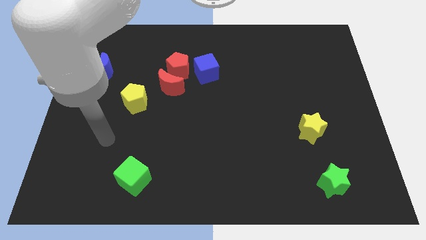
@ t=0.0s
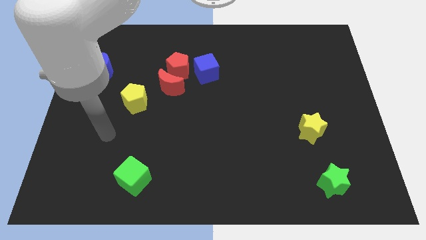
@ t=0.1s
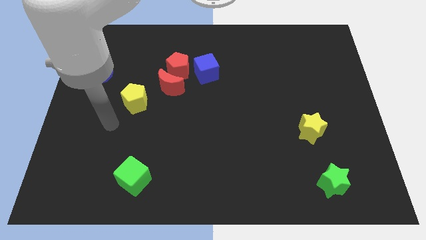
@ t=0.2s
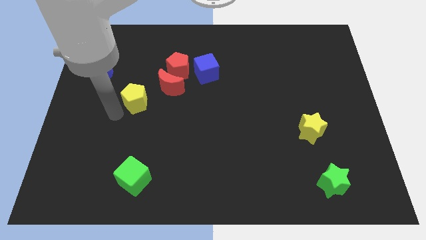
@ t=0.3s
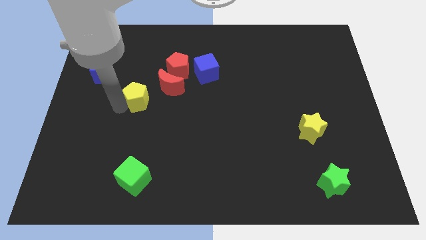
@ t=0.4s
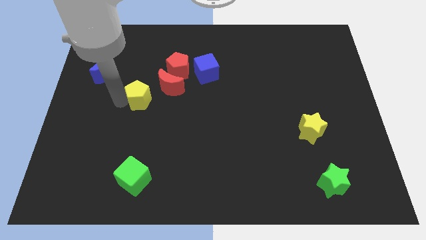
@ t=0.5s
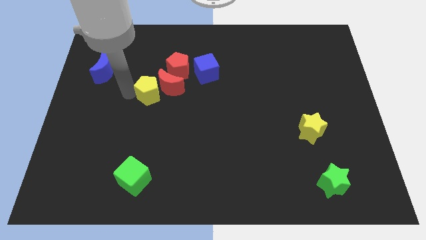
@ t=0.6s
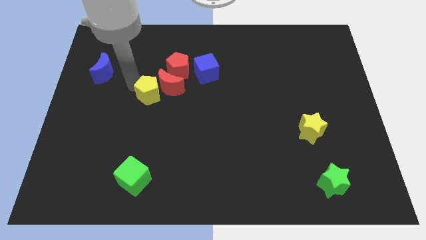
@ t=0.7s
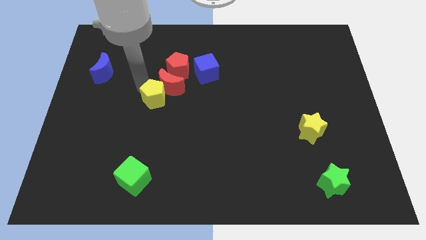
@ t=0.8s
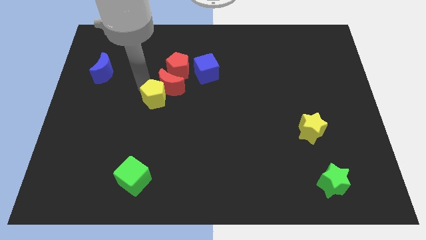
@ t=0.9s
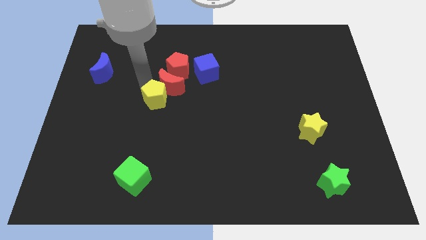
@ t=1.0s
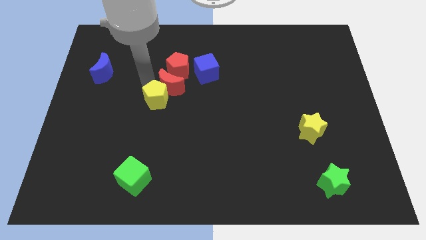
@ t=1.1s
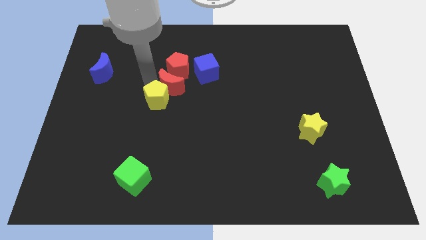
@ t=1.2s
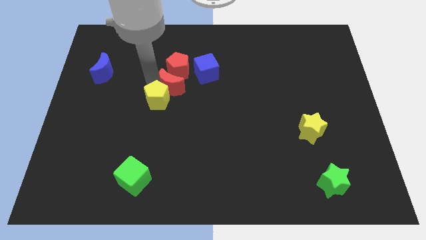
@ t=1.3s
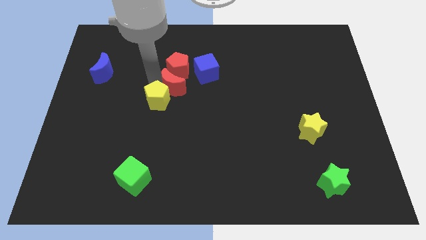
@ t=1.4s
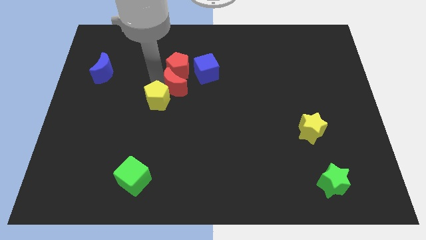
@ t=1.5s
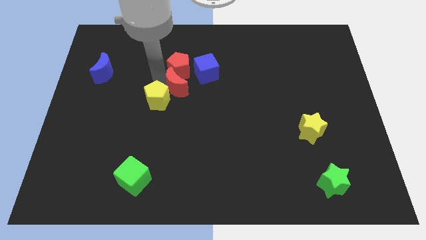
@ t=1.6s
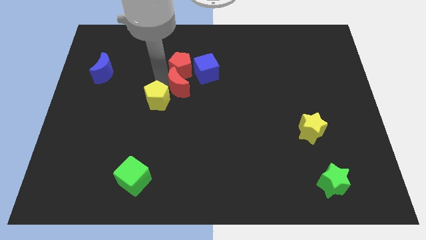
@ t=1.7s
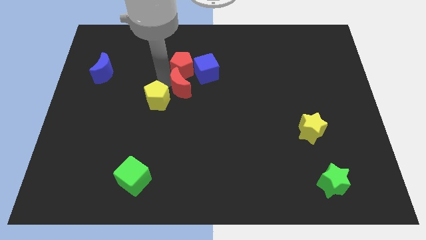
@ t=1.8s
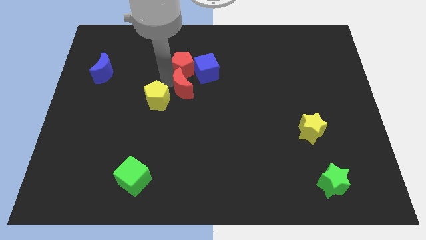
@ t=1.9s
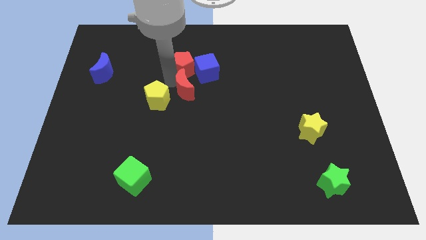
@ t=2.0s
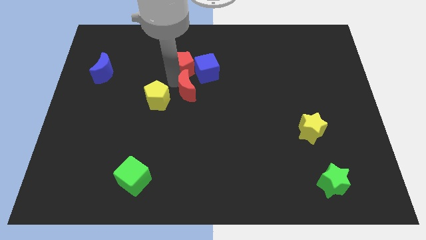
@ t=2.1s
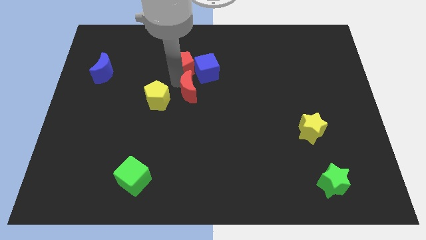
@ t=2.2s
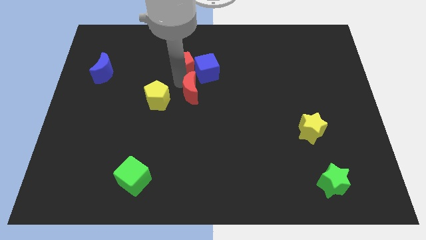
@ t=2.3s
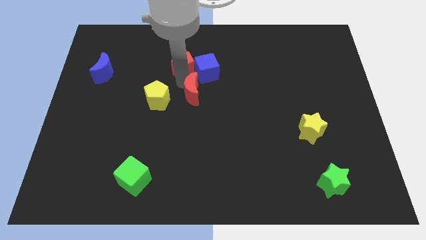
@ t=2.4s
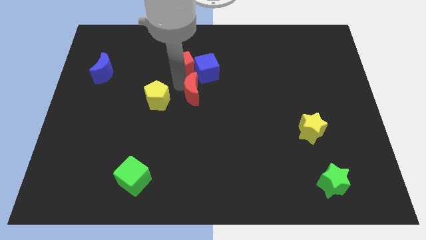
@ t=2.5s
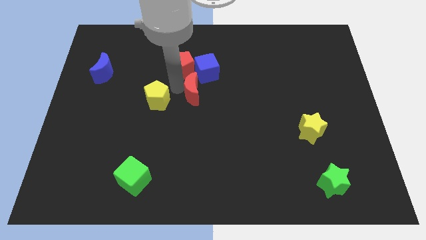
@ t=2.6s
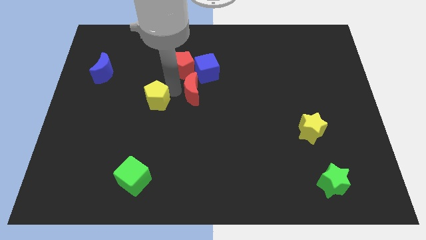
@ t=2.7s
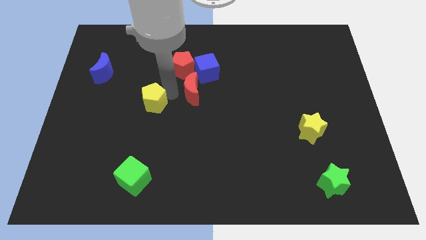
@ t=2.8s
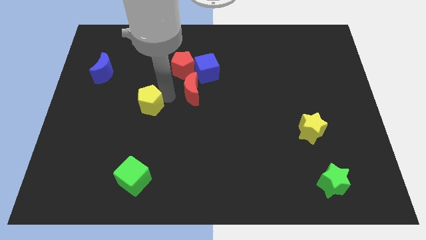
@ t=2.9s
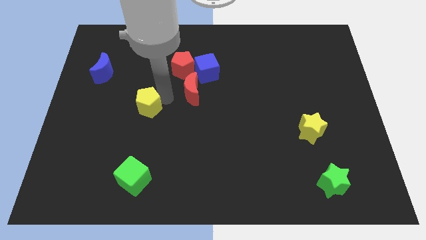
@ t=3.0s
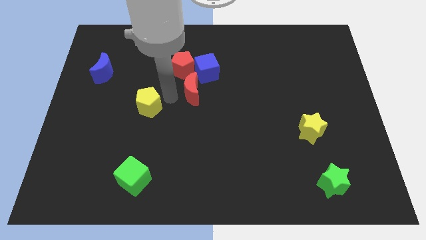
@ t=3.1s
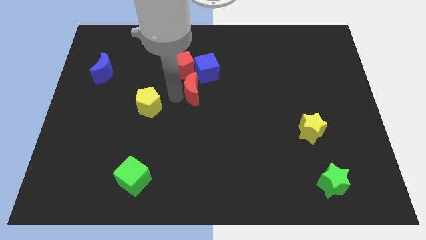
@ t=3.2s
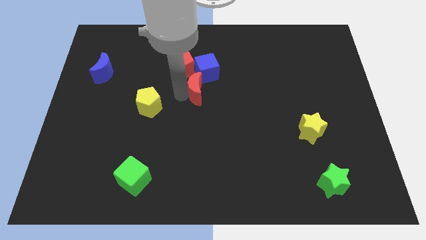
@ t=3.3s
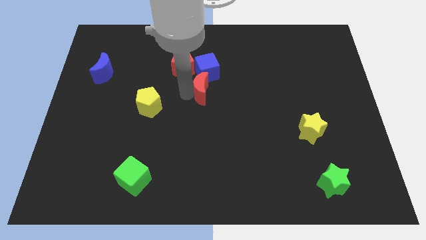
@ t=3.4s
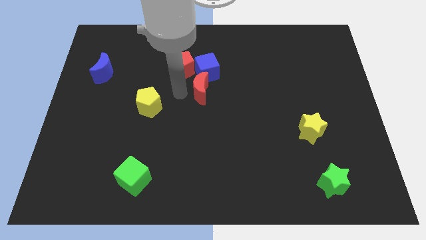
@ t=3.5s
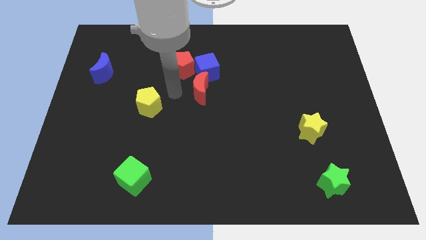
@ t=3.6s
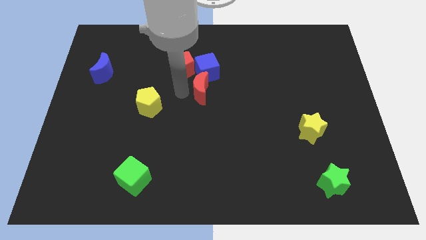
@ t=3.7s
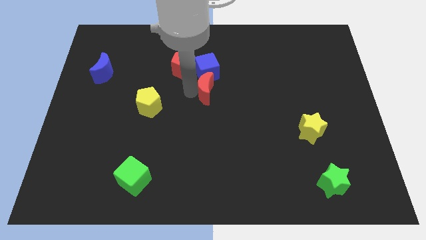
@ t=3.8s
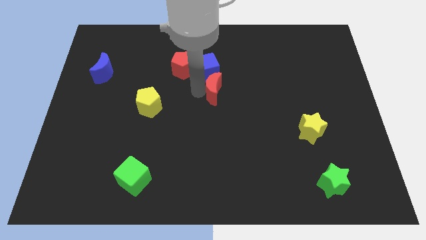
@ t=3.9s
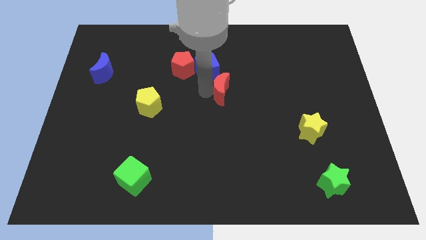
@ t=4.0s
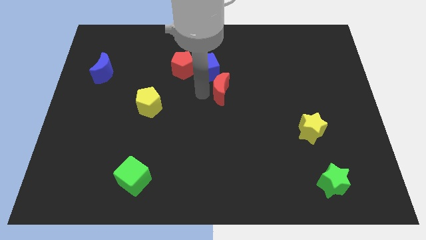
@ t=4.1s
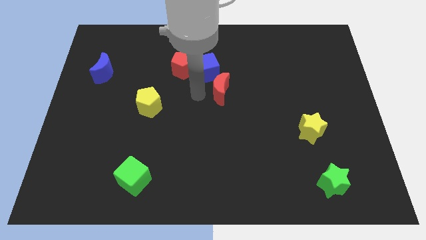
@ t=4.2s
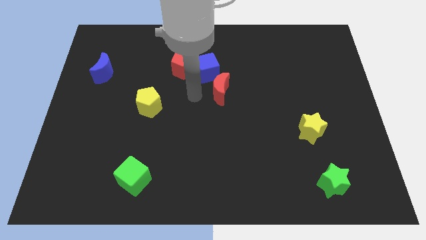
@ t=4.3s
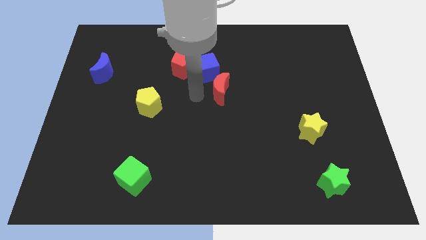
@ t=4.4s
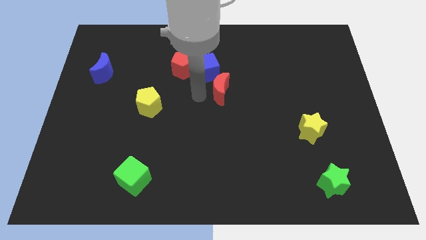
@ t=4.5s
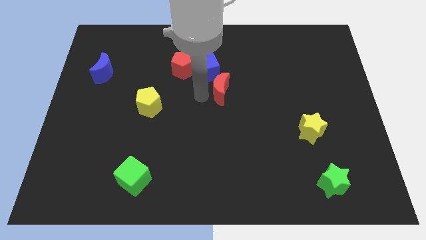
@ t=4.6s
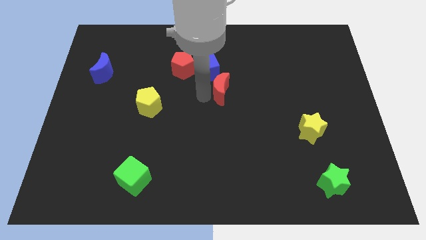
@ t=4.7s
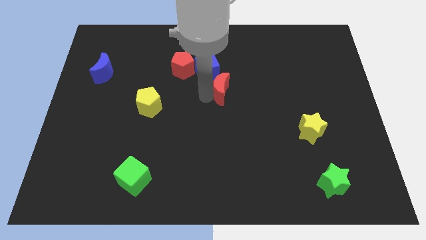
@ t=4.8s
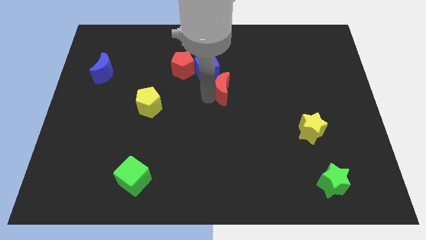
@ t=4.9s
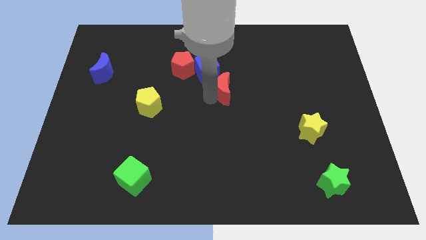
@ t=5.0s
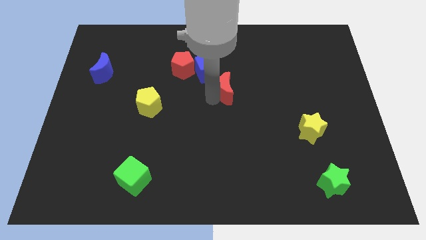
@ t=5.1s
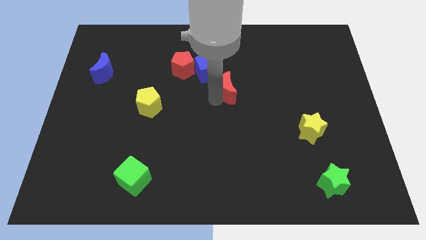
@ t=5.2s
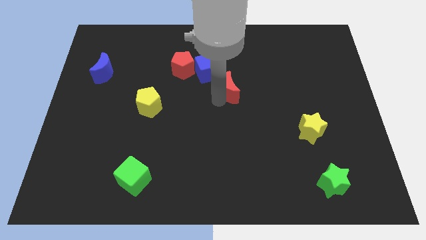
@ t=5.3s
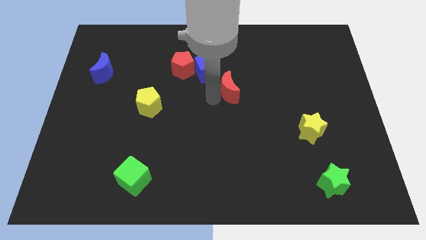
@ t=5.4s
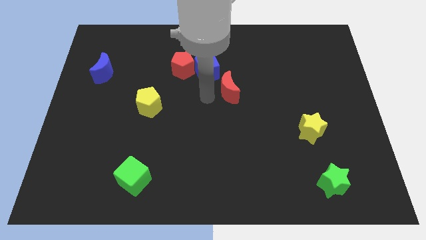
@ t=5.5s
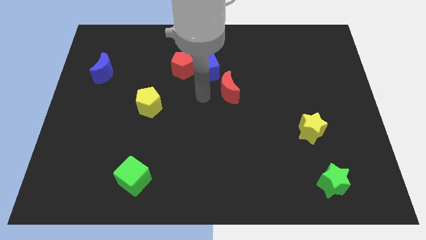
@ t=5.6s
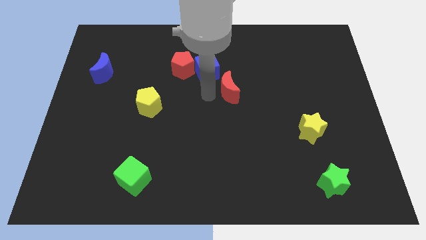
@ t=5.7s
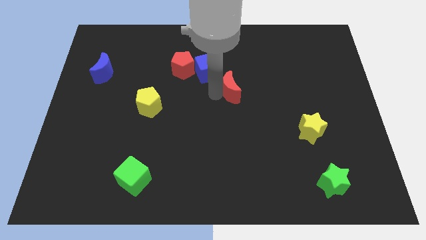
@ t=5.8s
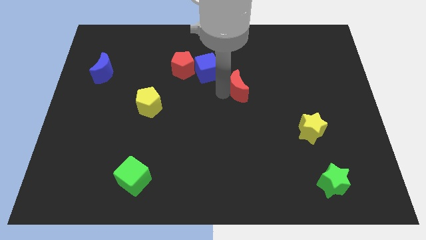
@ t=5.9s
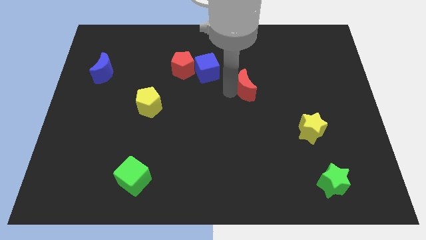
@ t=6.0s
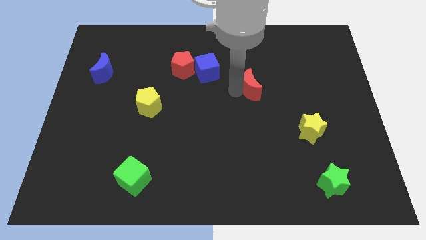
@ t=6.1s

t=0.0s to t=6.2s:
move the red moon right

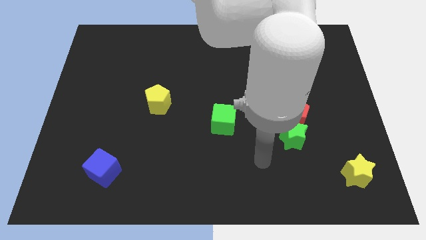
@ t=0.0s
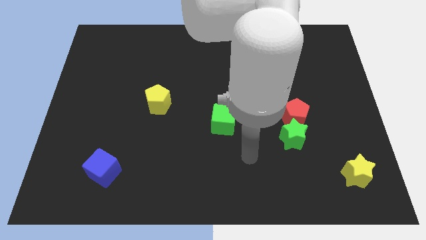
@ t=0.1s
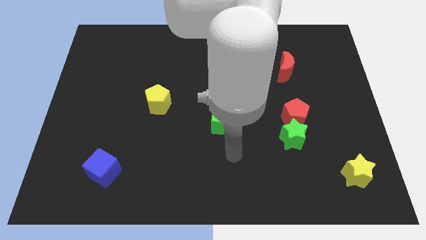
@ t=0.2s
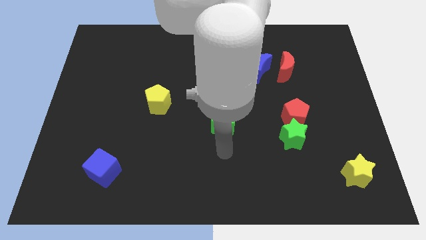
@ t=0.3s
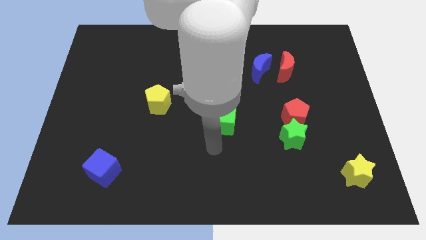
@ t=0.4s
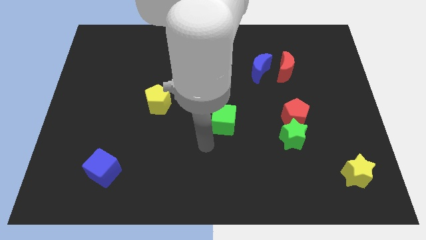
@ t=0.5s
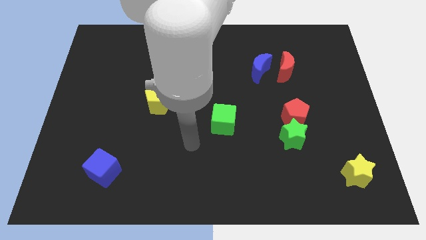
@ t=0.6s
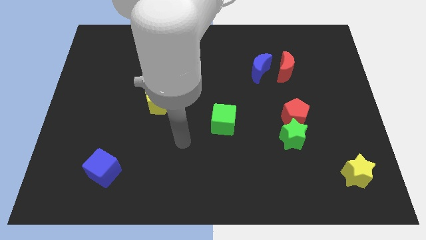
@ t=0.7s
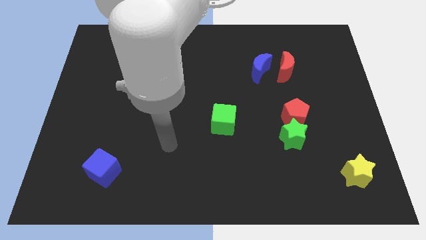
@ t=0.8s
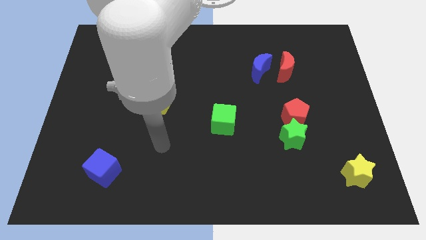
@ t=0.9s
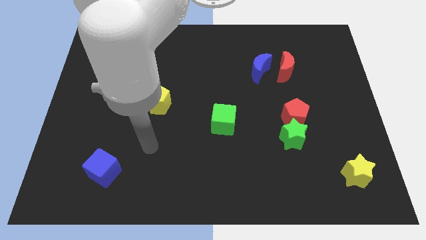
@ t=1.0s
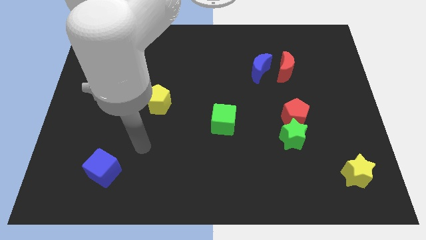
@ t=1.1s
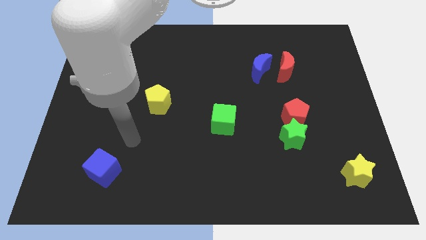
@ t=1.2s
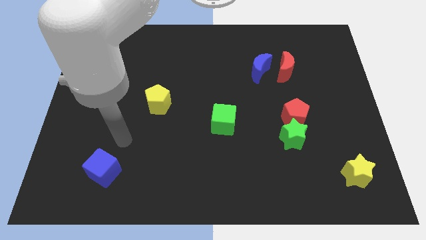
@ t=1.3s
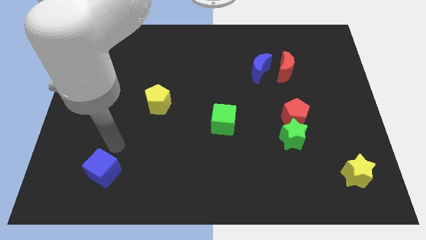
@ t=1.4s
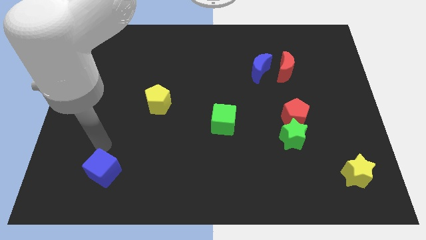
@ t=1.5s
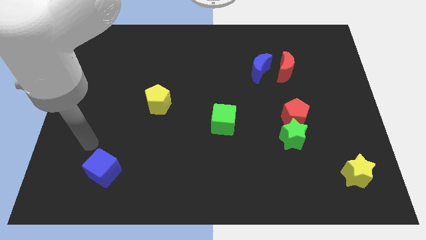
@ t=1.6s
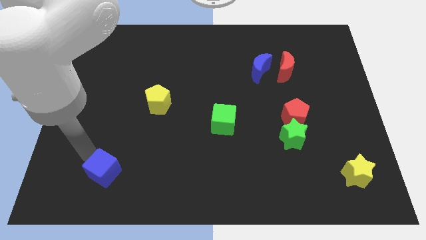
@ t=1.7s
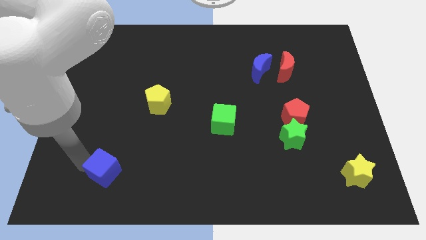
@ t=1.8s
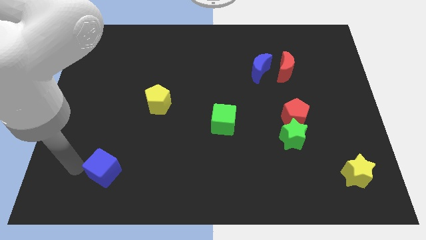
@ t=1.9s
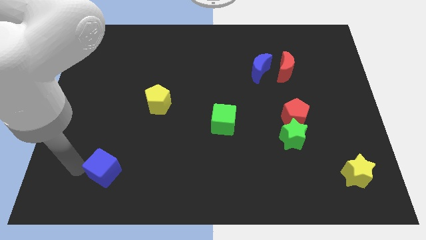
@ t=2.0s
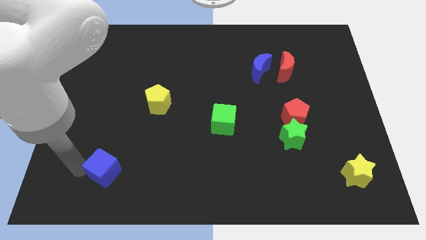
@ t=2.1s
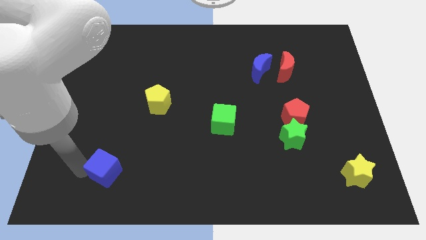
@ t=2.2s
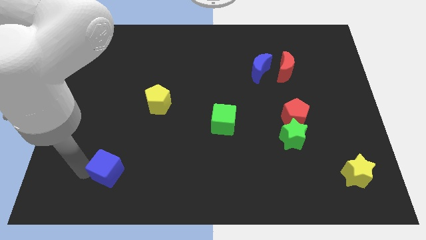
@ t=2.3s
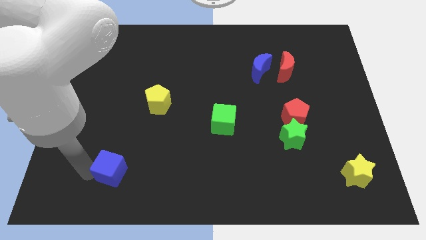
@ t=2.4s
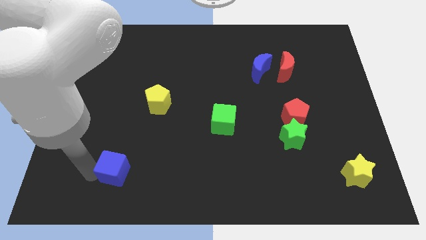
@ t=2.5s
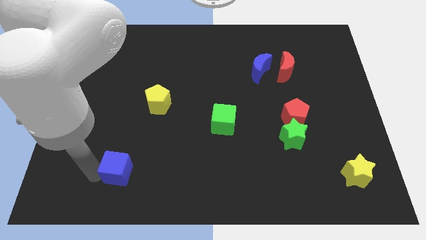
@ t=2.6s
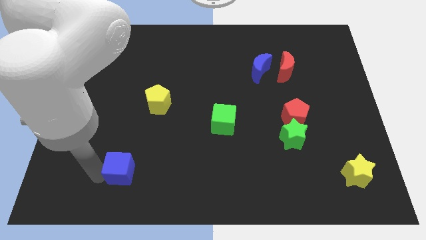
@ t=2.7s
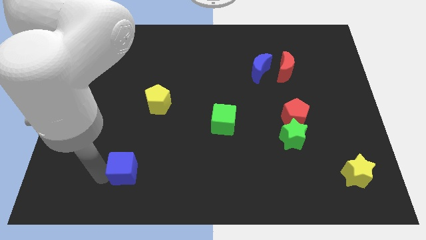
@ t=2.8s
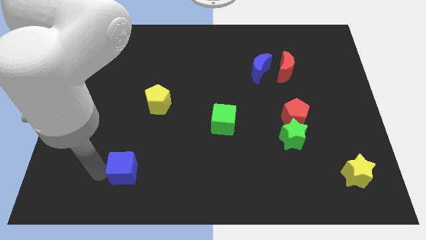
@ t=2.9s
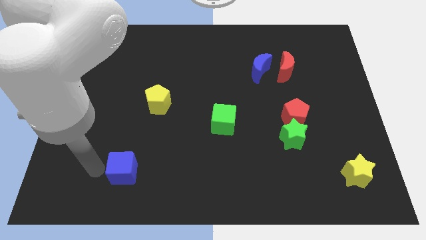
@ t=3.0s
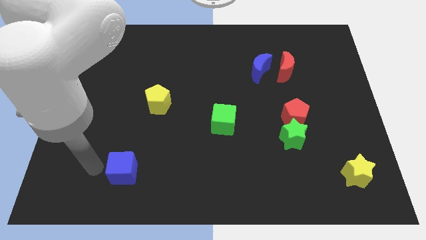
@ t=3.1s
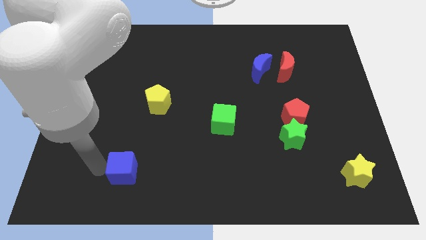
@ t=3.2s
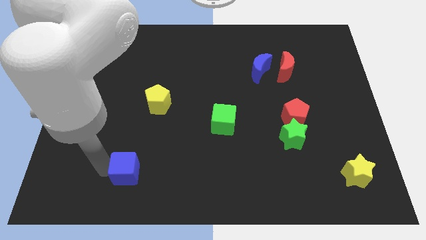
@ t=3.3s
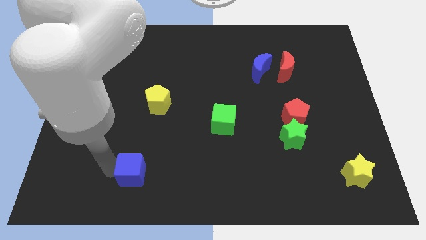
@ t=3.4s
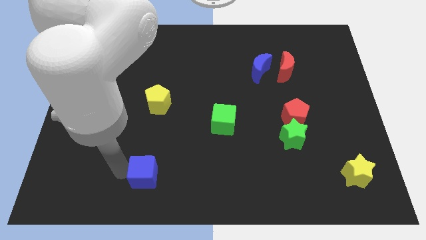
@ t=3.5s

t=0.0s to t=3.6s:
slide the blue cube right slightly
